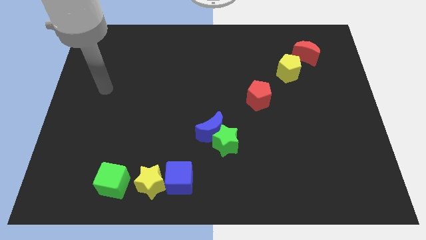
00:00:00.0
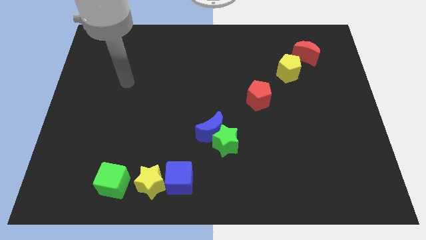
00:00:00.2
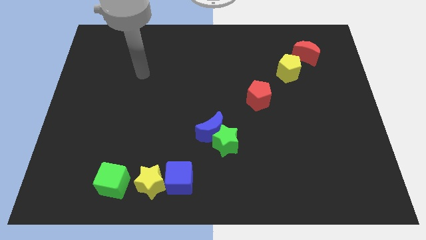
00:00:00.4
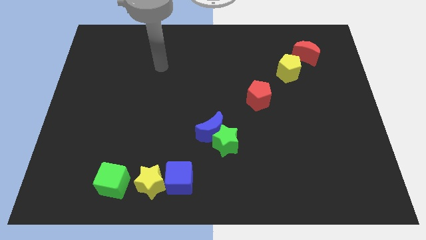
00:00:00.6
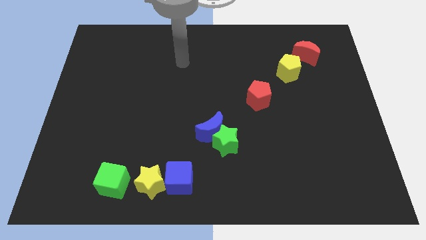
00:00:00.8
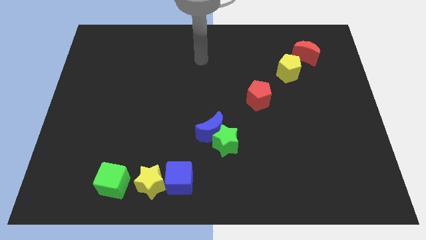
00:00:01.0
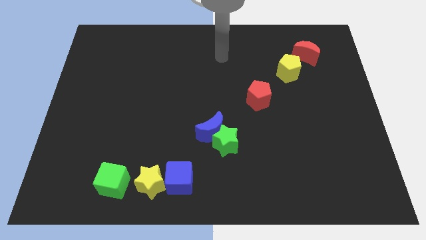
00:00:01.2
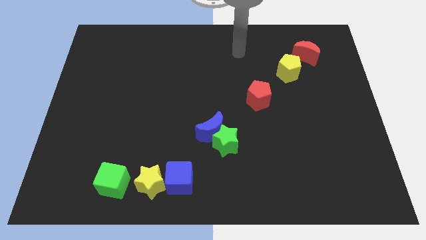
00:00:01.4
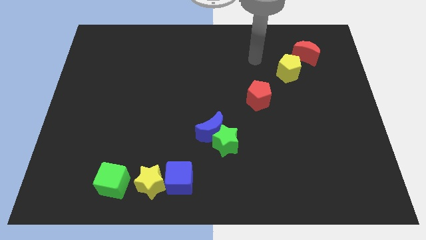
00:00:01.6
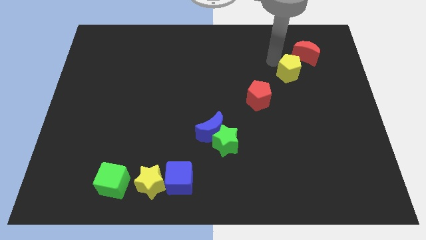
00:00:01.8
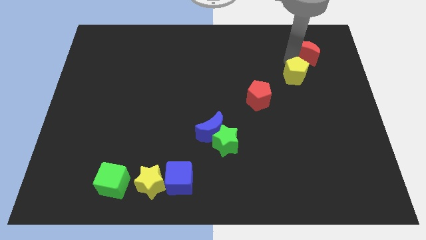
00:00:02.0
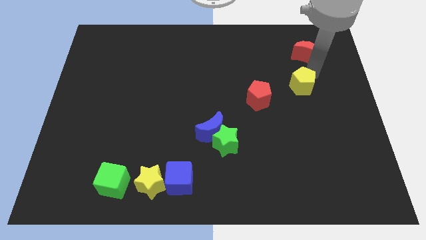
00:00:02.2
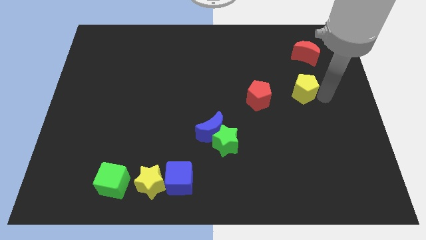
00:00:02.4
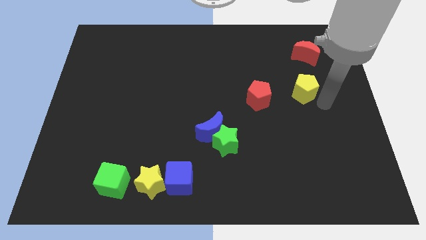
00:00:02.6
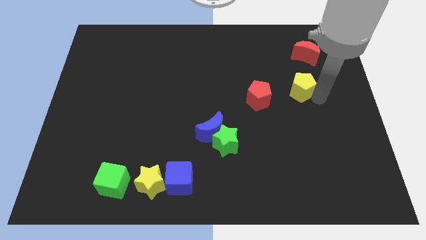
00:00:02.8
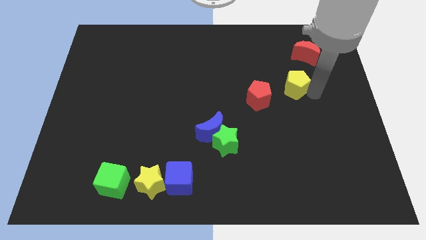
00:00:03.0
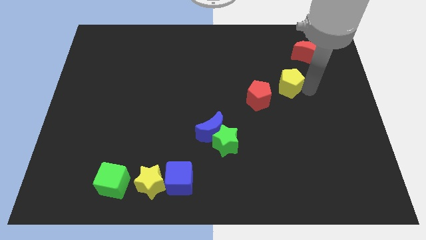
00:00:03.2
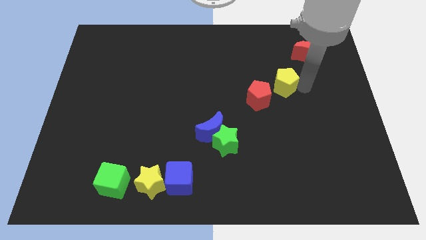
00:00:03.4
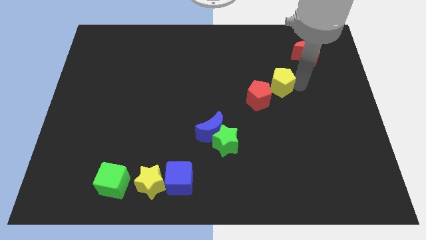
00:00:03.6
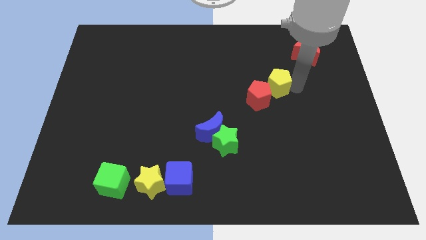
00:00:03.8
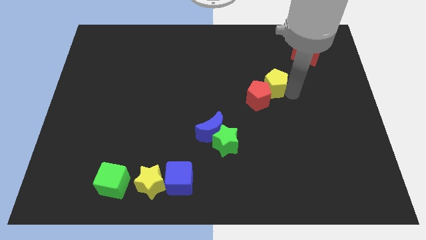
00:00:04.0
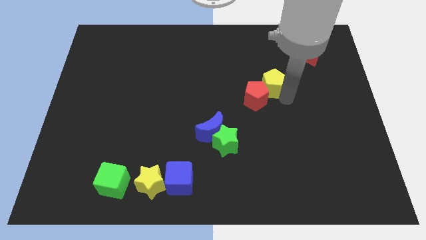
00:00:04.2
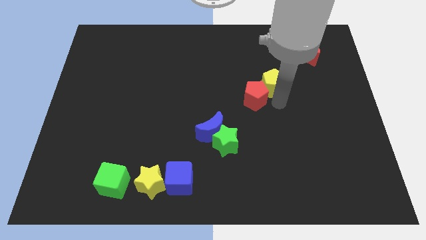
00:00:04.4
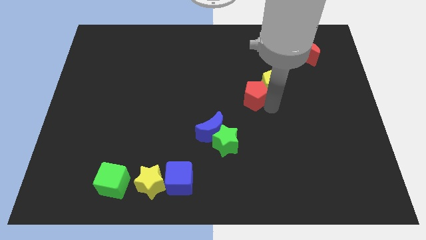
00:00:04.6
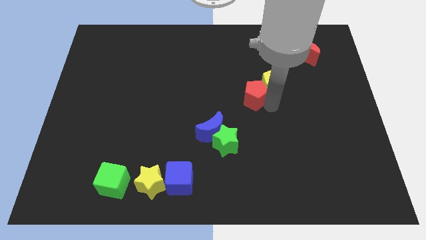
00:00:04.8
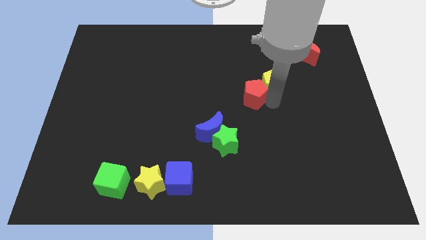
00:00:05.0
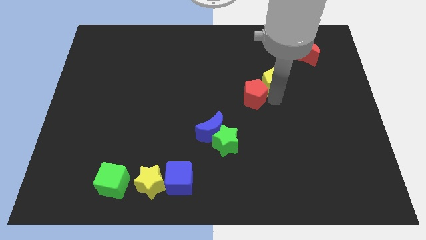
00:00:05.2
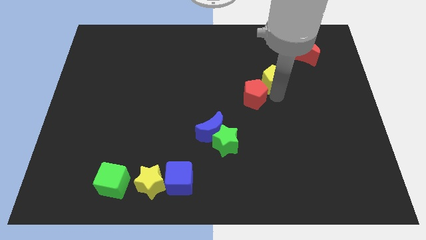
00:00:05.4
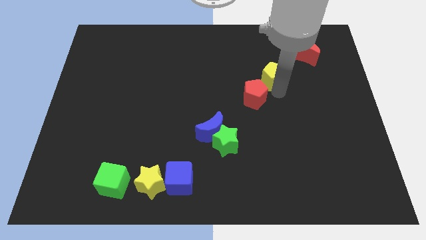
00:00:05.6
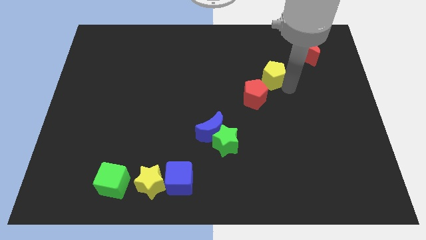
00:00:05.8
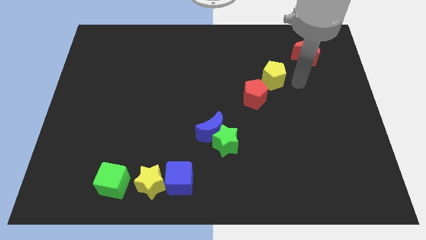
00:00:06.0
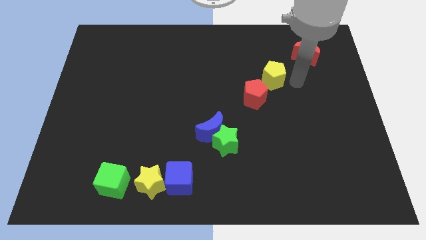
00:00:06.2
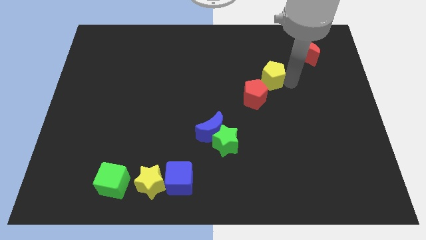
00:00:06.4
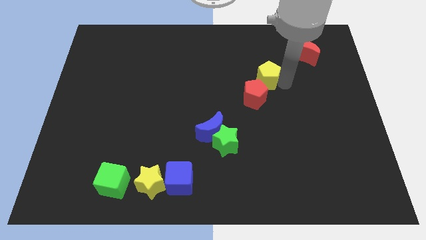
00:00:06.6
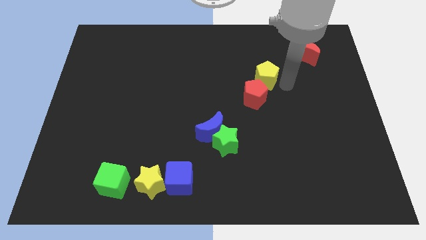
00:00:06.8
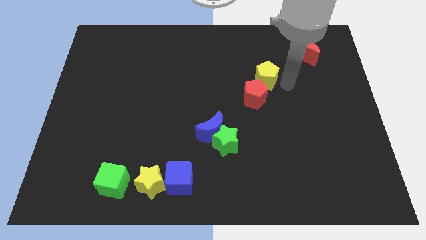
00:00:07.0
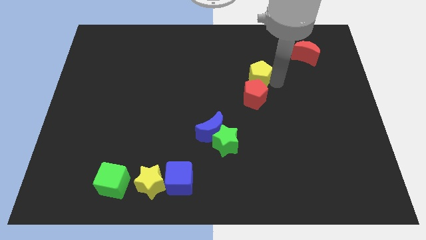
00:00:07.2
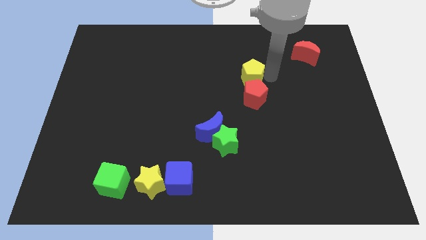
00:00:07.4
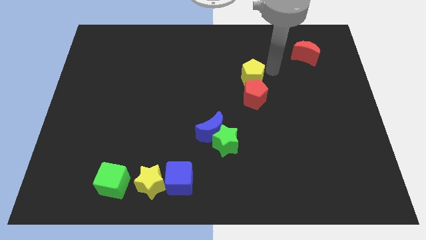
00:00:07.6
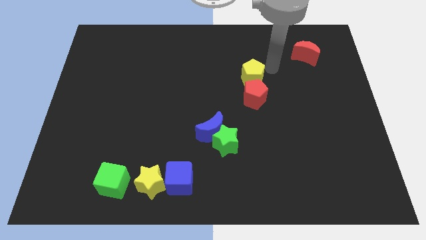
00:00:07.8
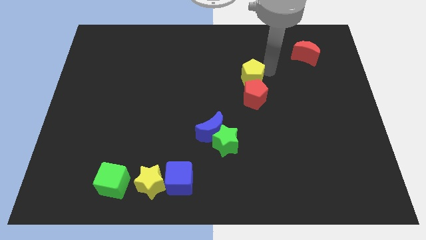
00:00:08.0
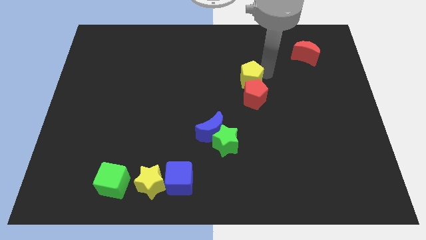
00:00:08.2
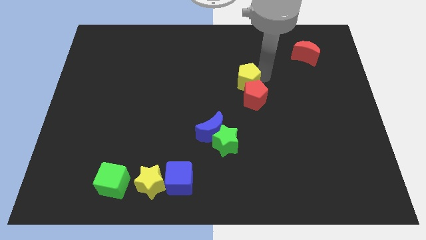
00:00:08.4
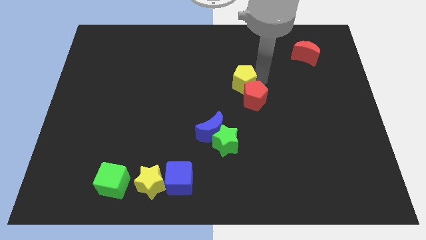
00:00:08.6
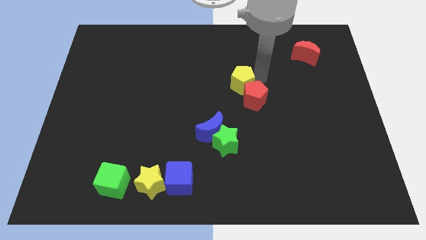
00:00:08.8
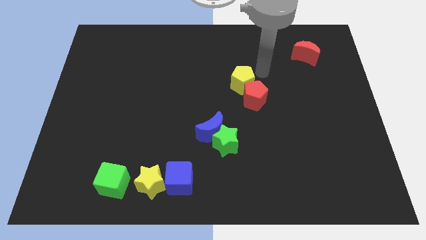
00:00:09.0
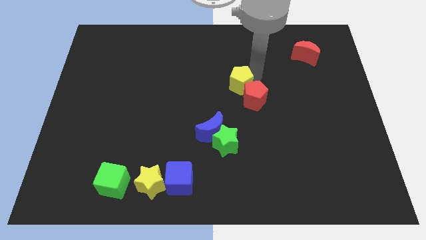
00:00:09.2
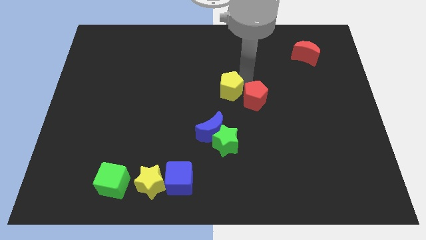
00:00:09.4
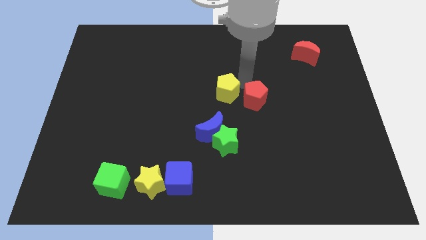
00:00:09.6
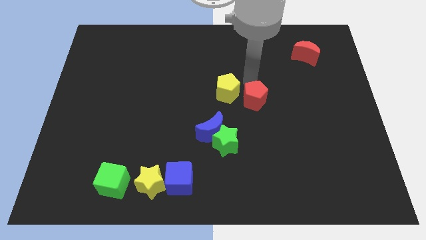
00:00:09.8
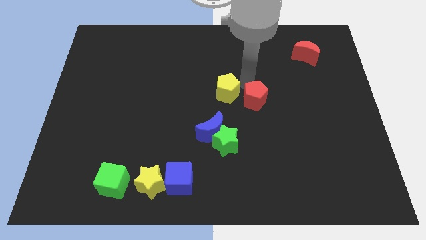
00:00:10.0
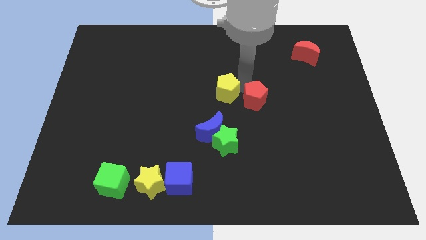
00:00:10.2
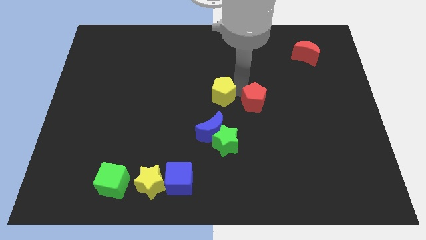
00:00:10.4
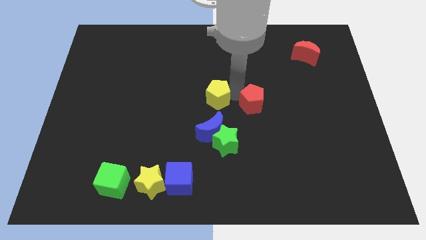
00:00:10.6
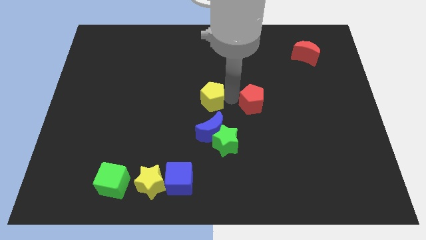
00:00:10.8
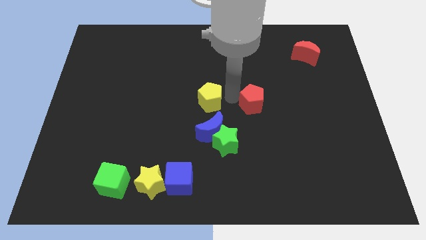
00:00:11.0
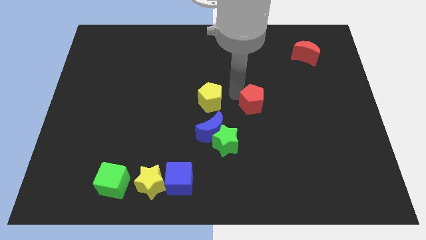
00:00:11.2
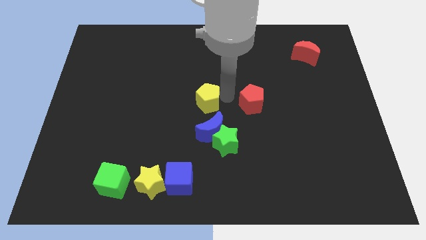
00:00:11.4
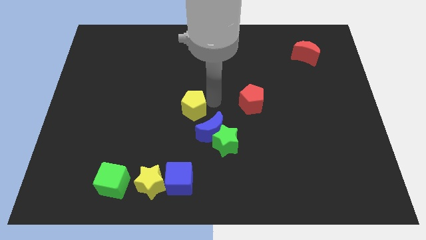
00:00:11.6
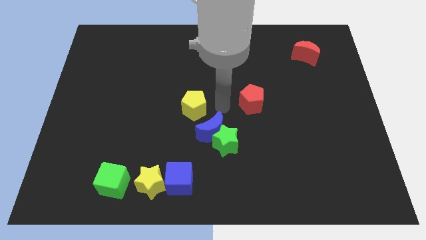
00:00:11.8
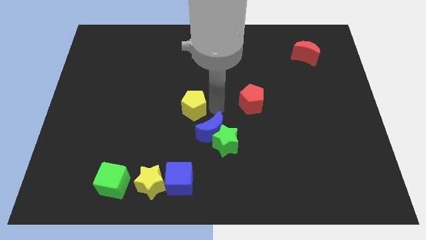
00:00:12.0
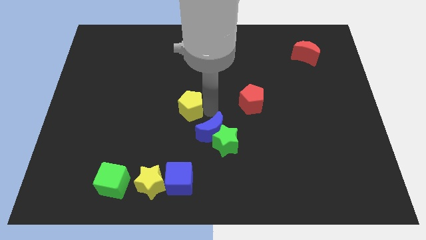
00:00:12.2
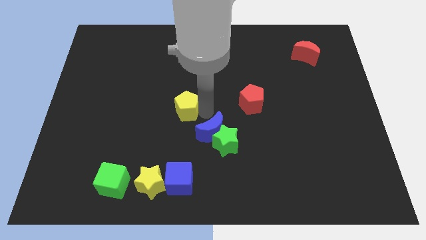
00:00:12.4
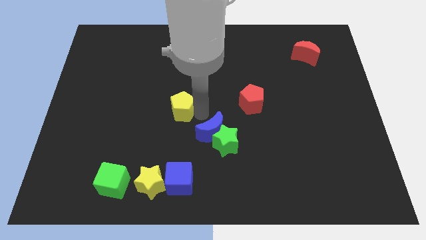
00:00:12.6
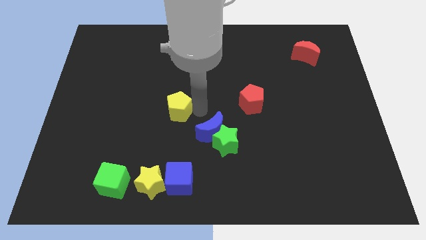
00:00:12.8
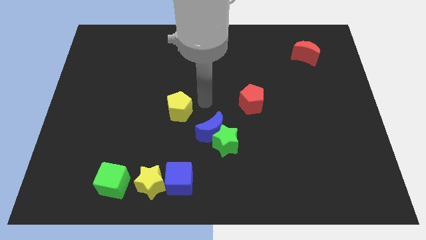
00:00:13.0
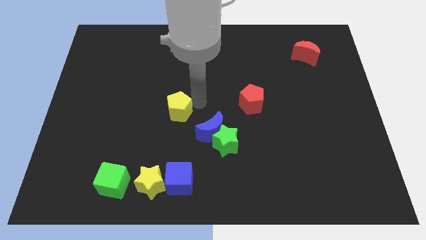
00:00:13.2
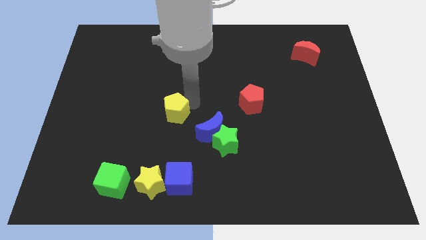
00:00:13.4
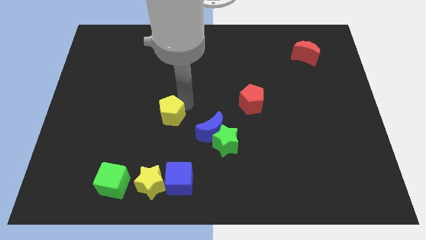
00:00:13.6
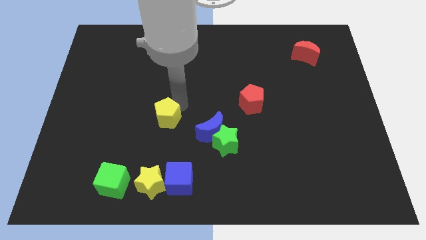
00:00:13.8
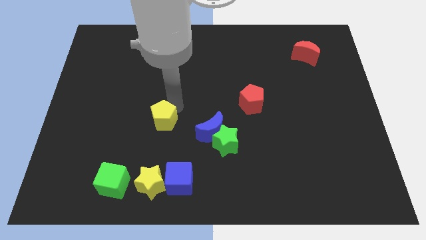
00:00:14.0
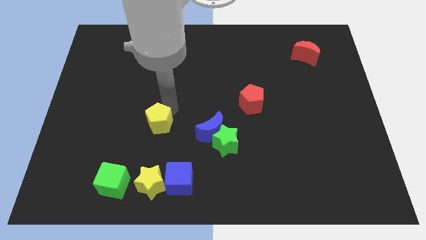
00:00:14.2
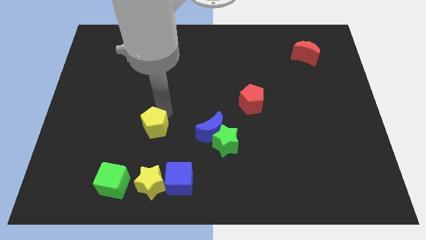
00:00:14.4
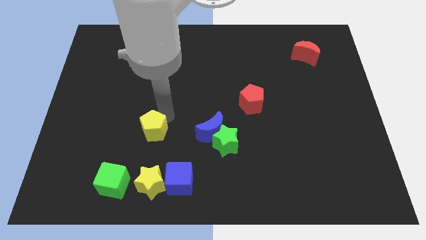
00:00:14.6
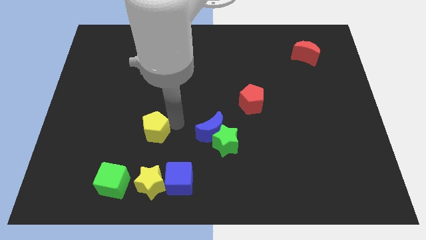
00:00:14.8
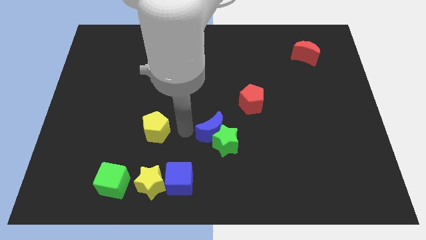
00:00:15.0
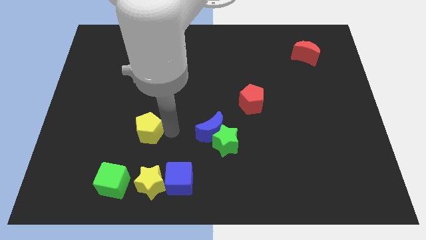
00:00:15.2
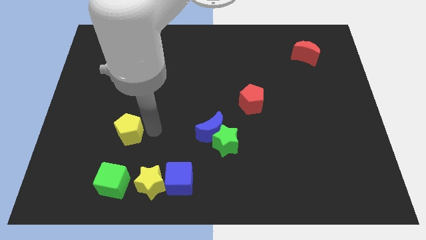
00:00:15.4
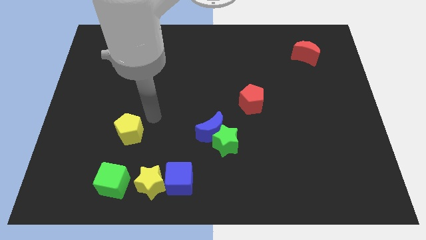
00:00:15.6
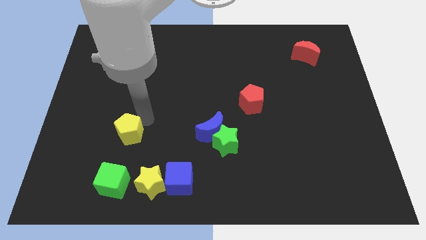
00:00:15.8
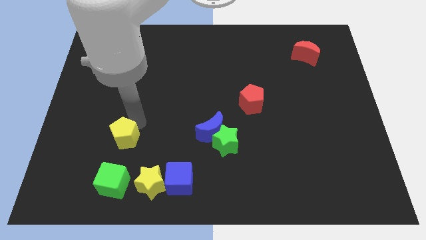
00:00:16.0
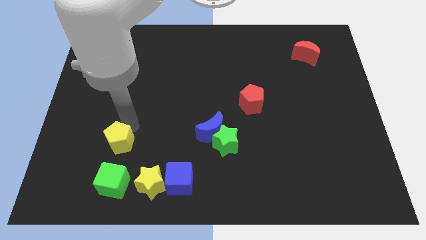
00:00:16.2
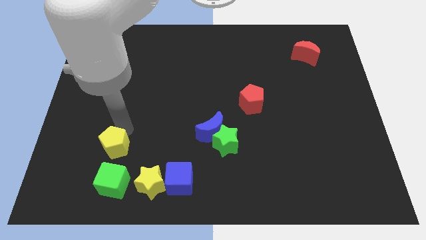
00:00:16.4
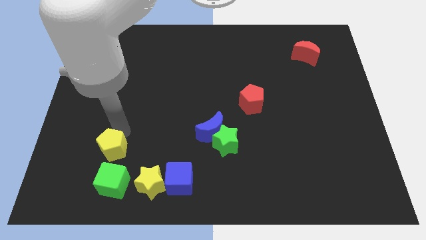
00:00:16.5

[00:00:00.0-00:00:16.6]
move the yellow pentagon to the top left side of the green cube
